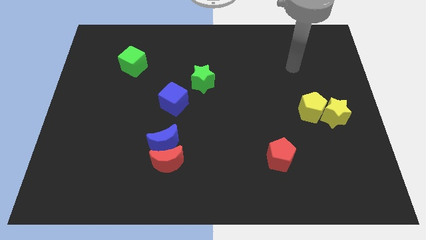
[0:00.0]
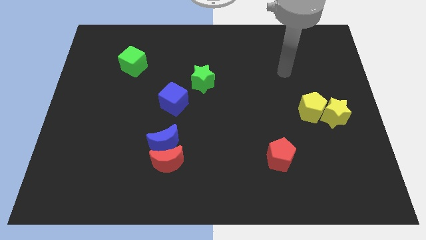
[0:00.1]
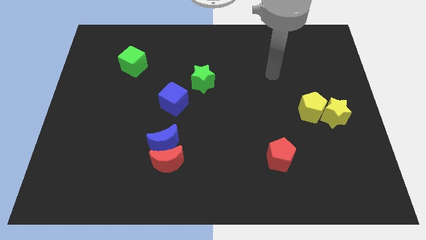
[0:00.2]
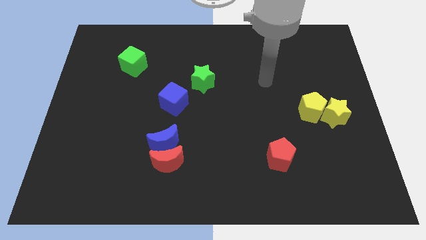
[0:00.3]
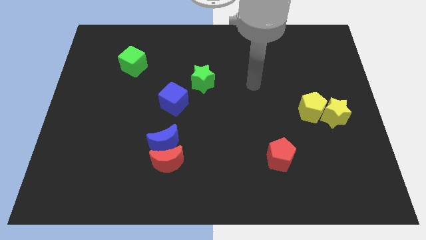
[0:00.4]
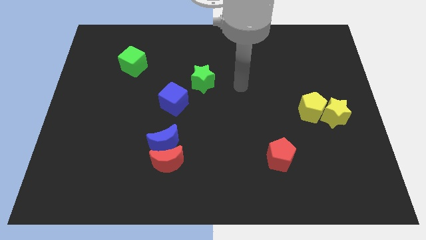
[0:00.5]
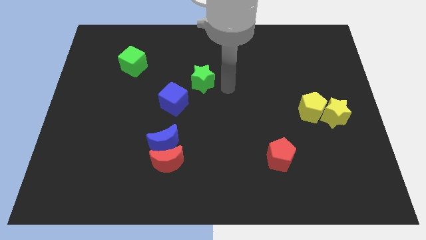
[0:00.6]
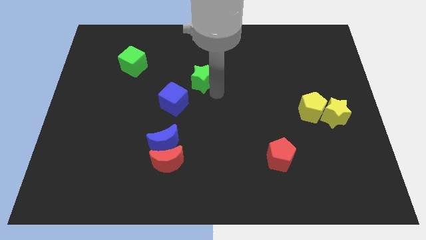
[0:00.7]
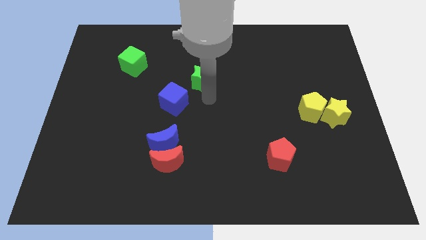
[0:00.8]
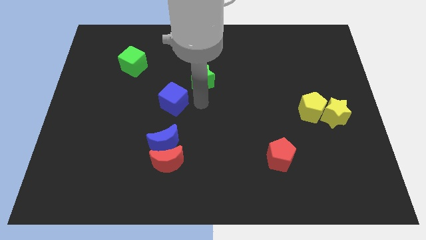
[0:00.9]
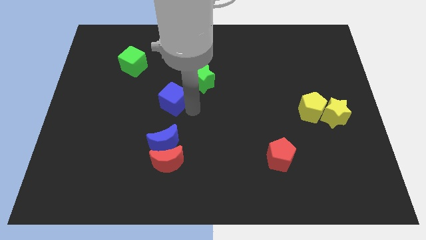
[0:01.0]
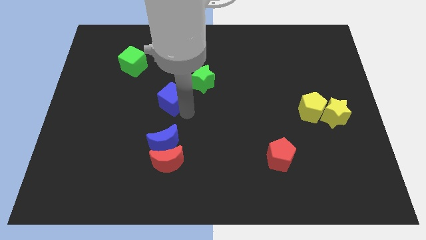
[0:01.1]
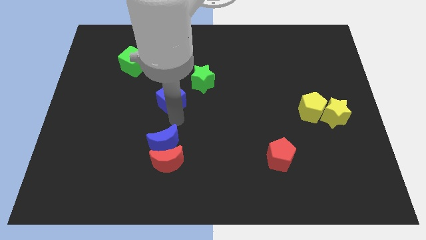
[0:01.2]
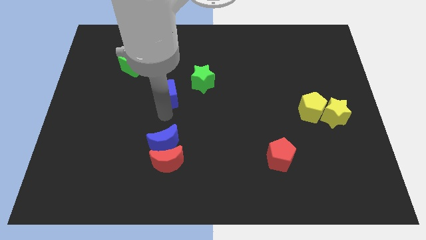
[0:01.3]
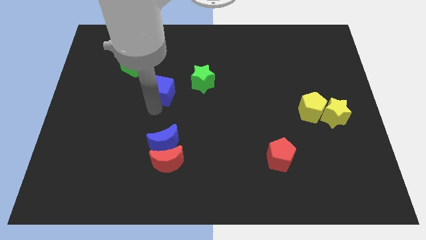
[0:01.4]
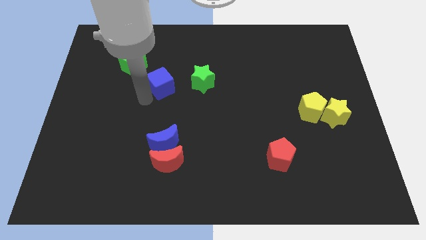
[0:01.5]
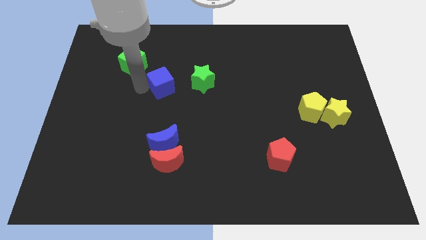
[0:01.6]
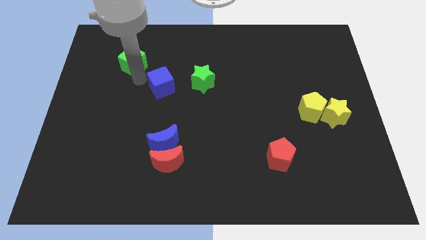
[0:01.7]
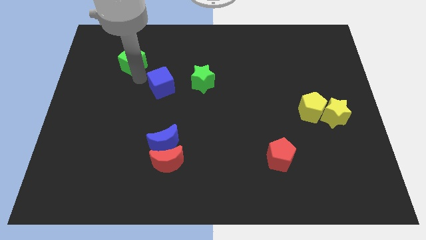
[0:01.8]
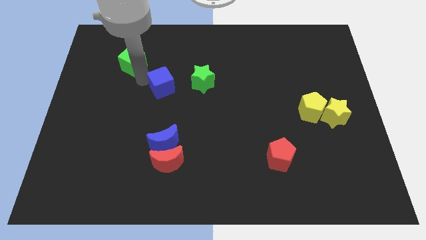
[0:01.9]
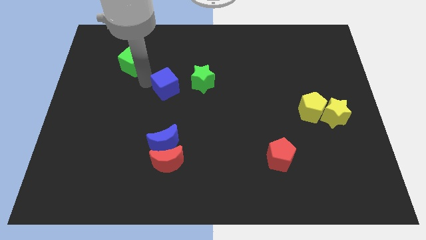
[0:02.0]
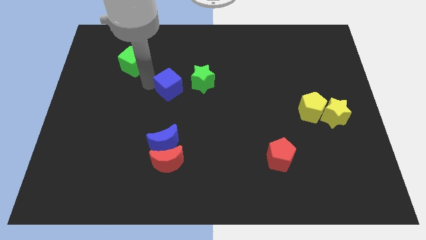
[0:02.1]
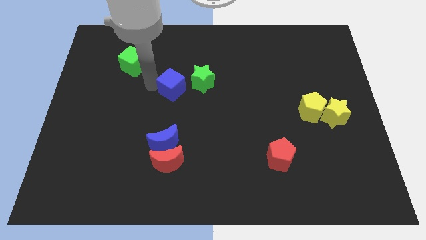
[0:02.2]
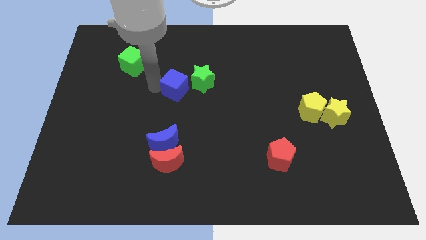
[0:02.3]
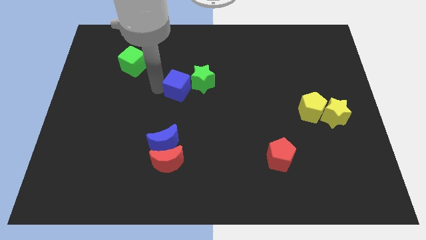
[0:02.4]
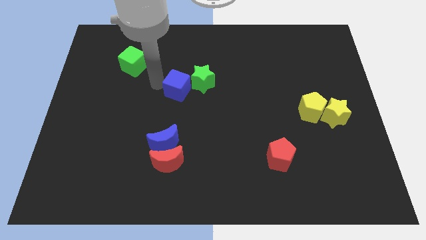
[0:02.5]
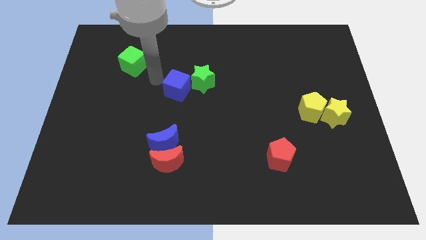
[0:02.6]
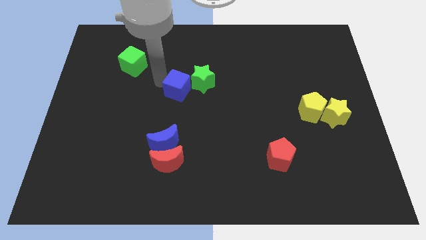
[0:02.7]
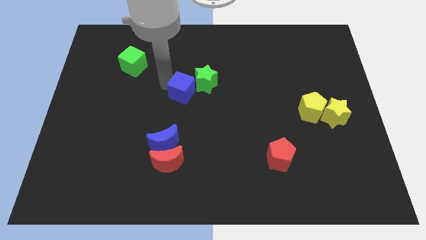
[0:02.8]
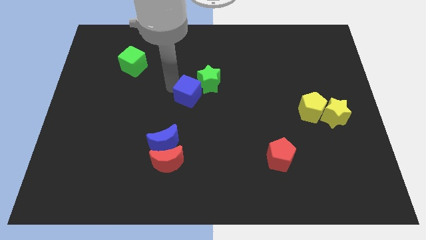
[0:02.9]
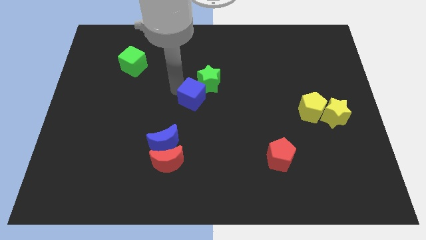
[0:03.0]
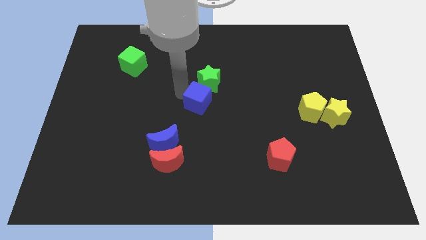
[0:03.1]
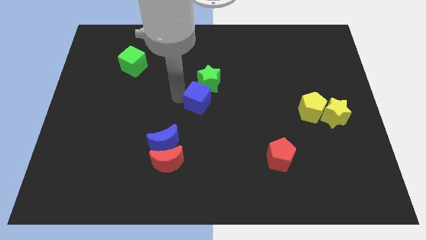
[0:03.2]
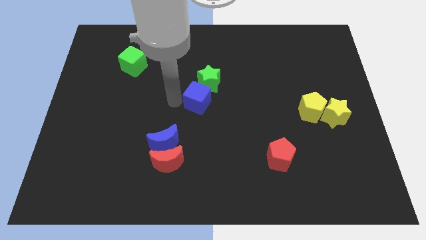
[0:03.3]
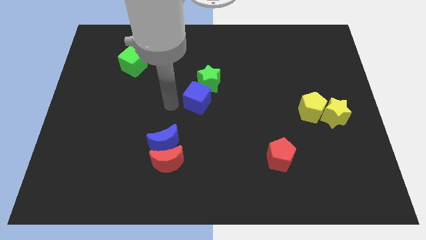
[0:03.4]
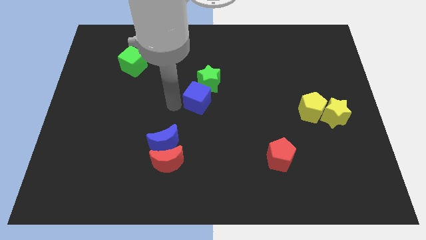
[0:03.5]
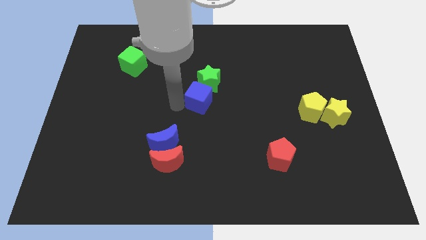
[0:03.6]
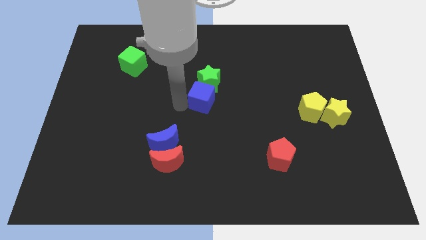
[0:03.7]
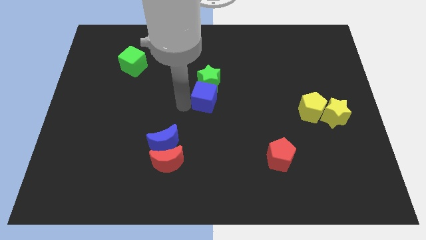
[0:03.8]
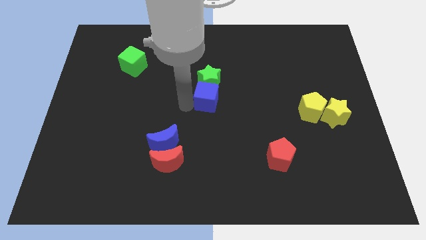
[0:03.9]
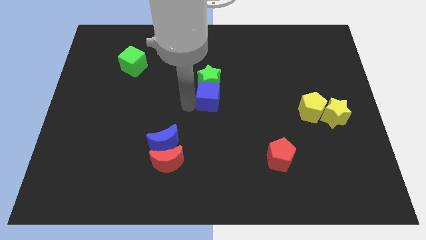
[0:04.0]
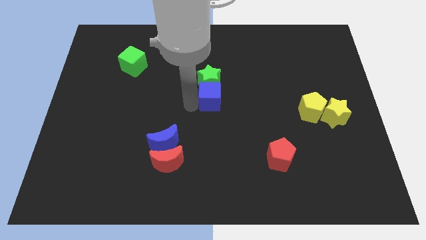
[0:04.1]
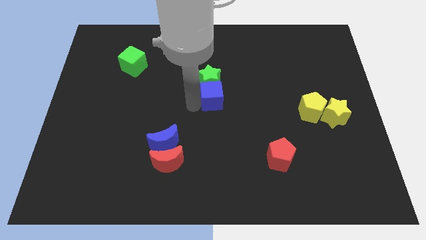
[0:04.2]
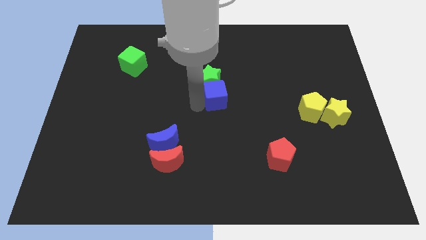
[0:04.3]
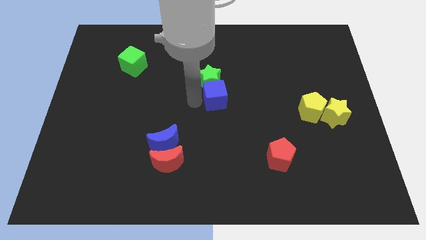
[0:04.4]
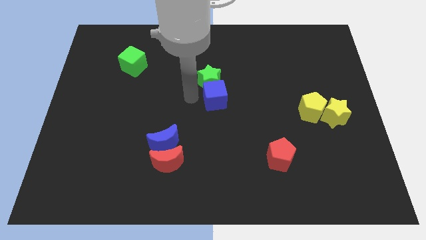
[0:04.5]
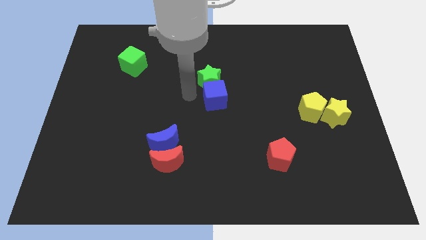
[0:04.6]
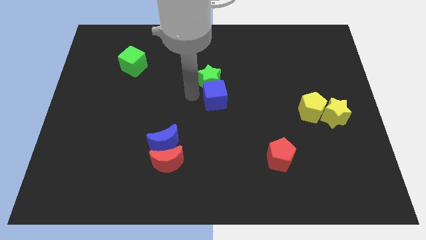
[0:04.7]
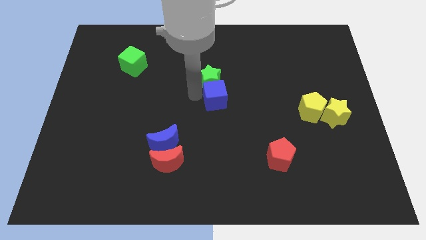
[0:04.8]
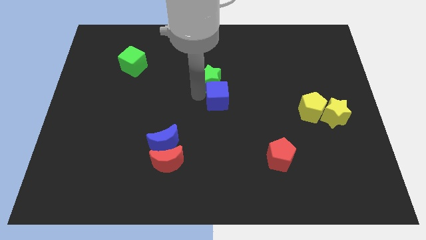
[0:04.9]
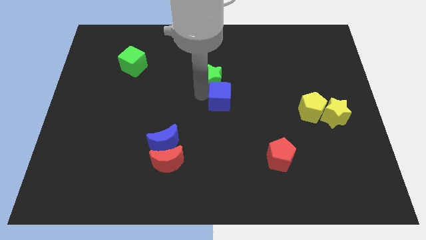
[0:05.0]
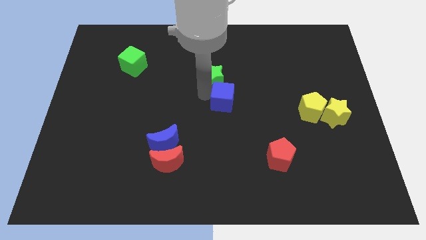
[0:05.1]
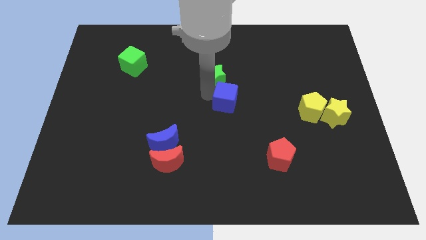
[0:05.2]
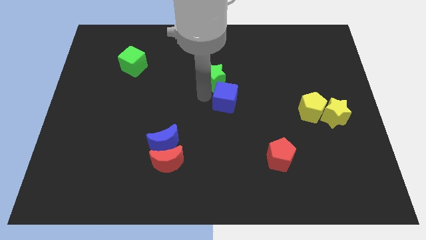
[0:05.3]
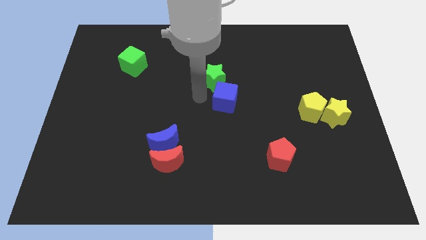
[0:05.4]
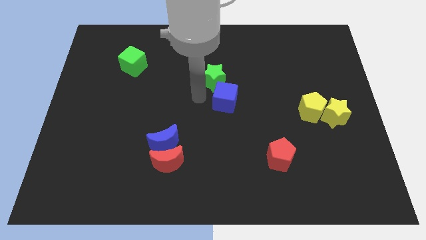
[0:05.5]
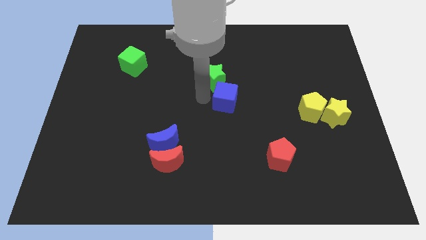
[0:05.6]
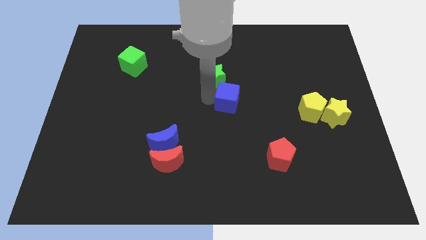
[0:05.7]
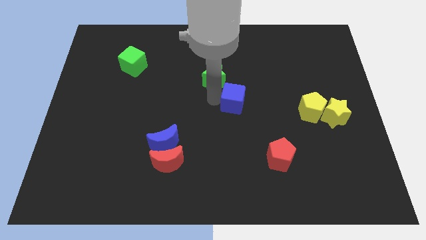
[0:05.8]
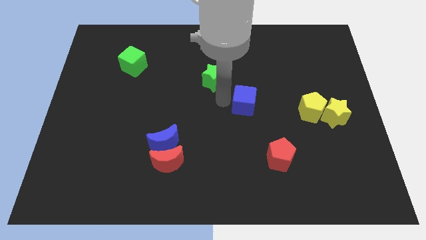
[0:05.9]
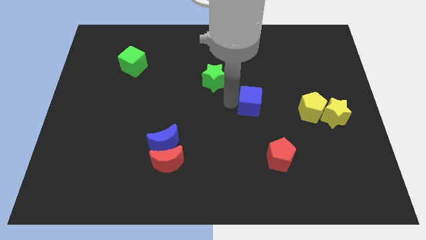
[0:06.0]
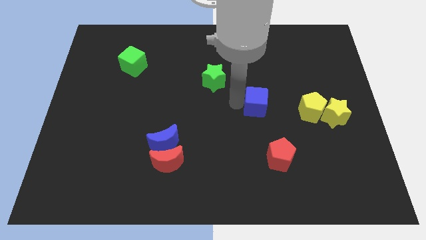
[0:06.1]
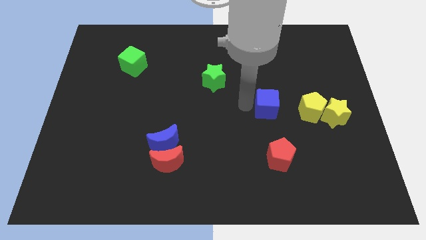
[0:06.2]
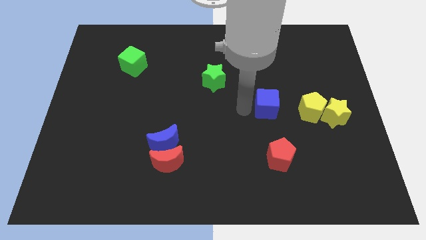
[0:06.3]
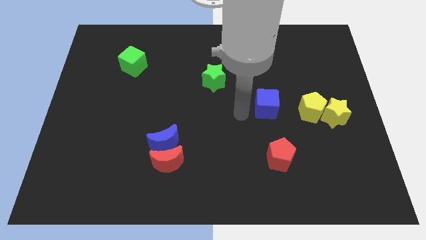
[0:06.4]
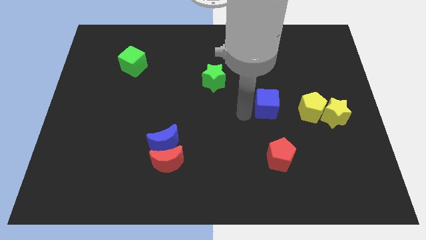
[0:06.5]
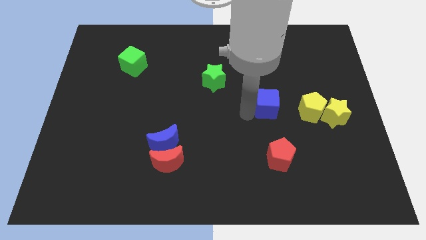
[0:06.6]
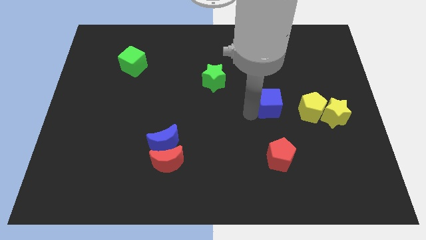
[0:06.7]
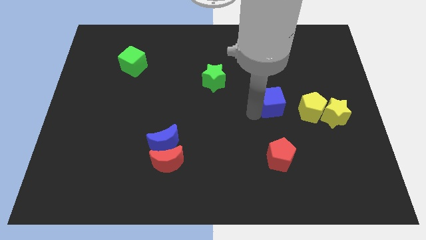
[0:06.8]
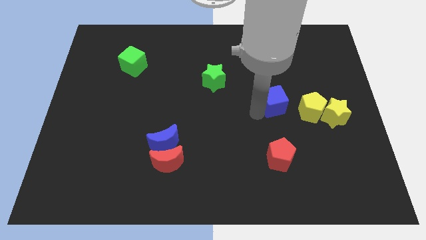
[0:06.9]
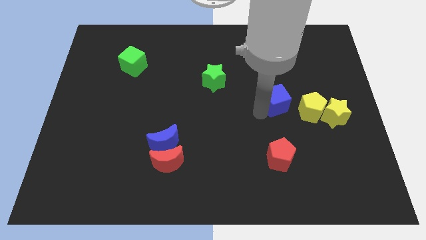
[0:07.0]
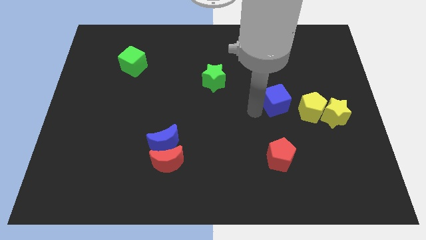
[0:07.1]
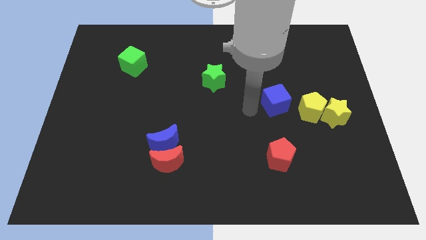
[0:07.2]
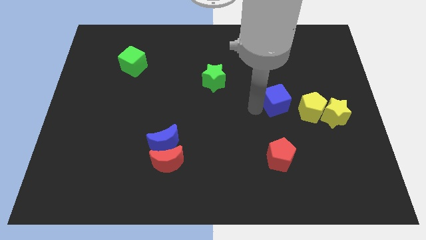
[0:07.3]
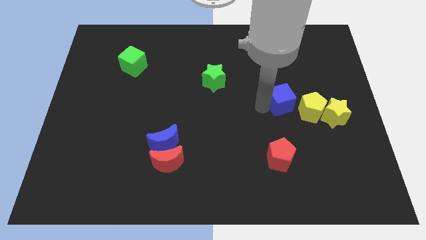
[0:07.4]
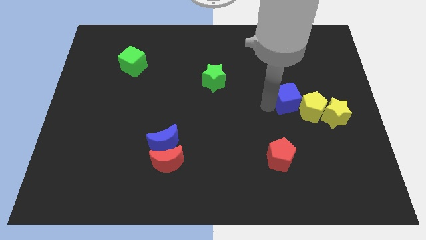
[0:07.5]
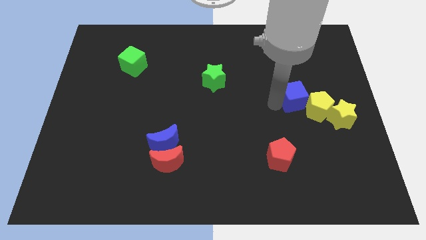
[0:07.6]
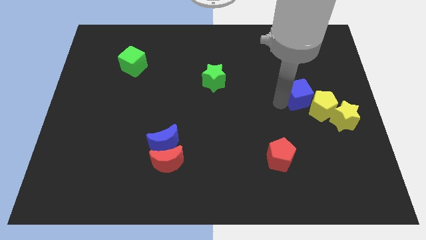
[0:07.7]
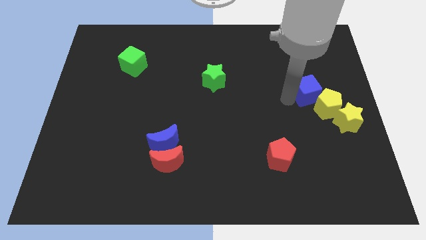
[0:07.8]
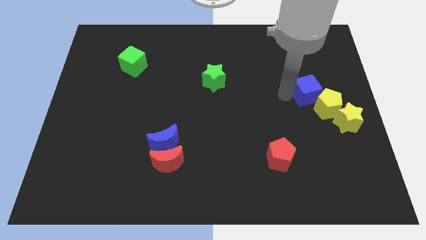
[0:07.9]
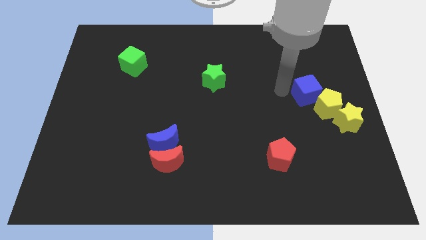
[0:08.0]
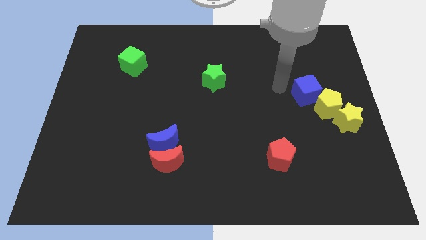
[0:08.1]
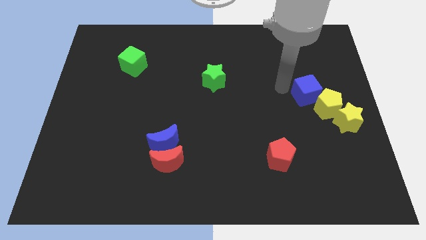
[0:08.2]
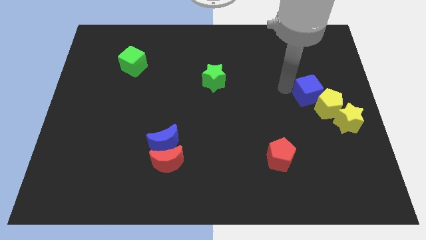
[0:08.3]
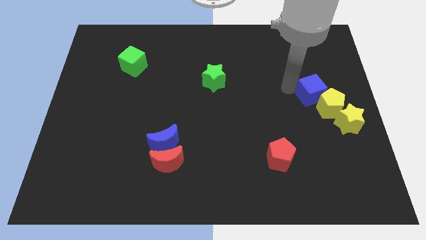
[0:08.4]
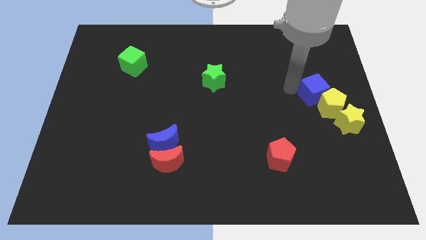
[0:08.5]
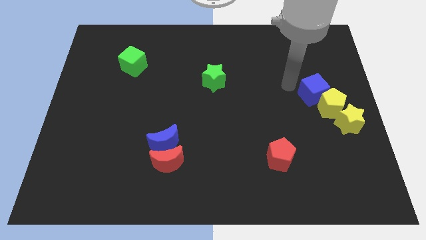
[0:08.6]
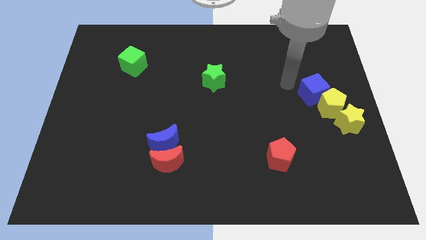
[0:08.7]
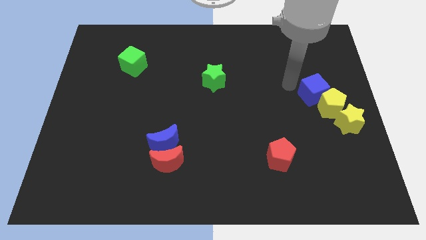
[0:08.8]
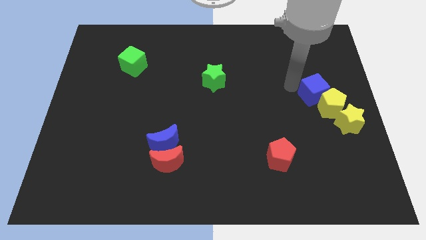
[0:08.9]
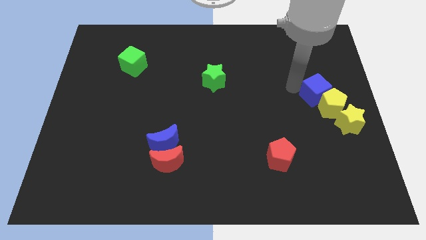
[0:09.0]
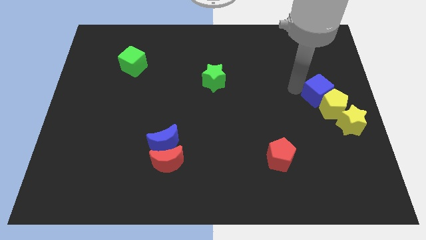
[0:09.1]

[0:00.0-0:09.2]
slide the blue cube to the right side
